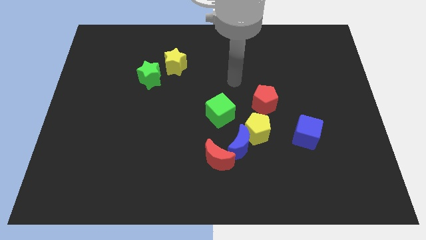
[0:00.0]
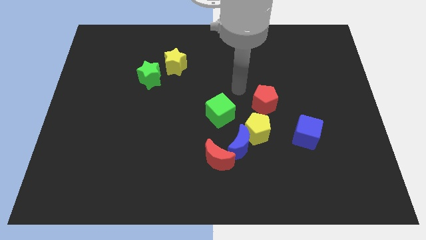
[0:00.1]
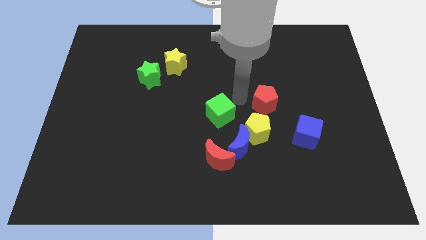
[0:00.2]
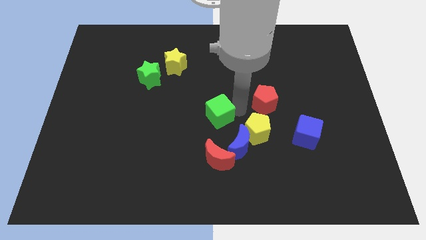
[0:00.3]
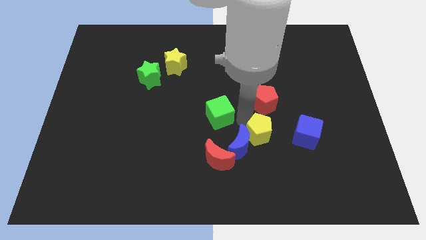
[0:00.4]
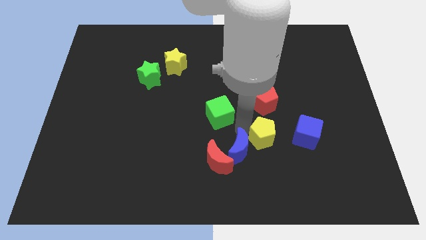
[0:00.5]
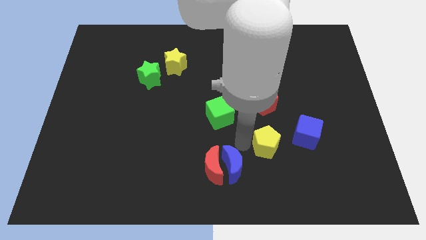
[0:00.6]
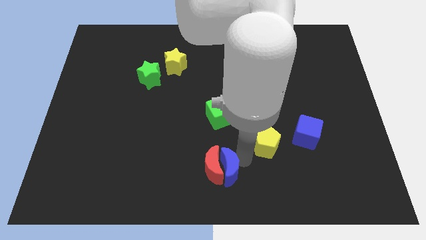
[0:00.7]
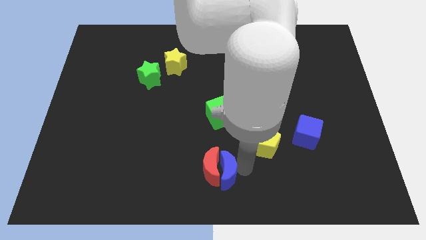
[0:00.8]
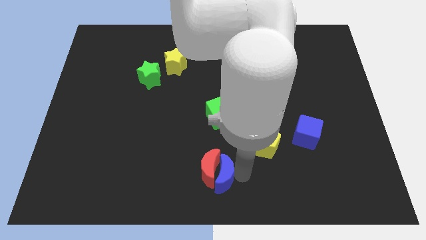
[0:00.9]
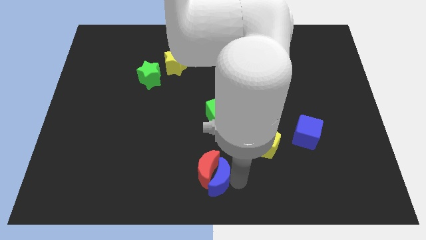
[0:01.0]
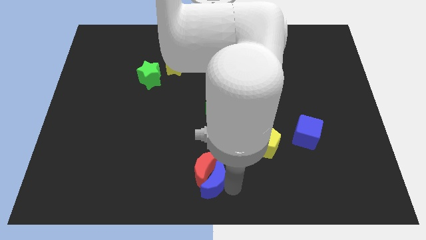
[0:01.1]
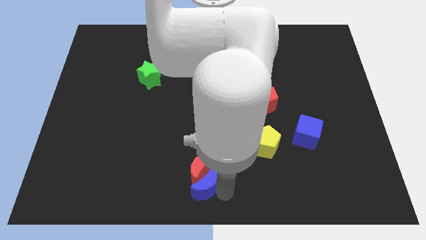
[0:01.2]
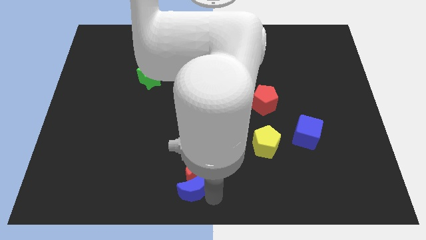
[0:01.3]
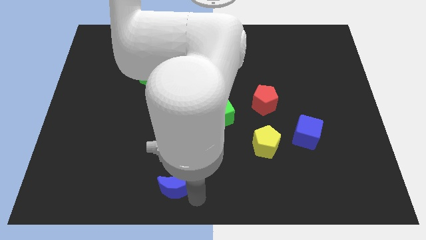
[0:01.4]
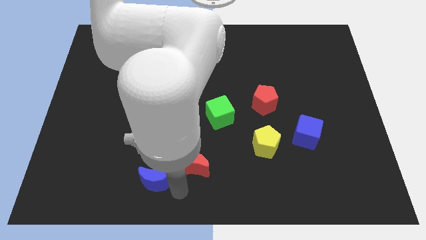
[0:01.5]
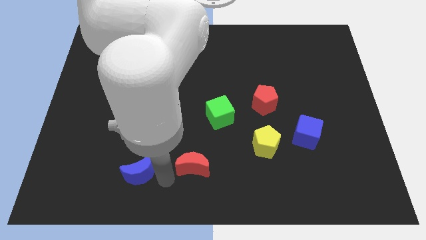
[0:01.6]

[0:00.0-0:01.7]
pull the red moon apart from the blue moon

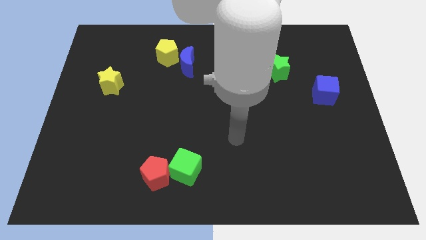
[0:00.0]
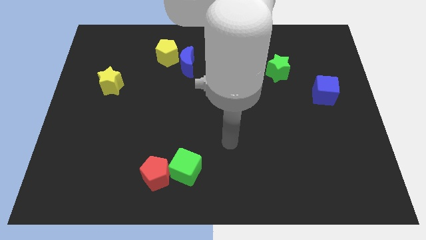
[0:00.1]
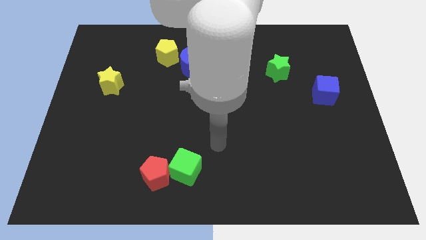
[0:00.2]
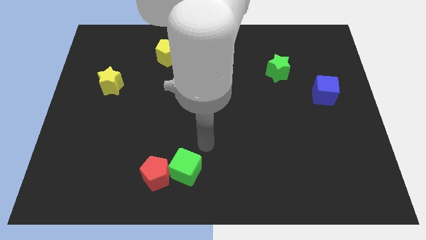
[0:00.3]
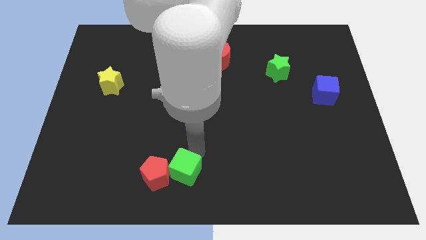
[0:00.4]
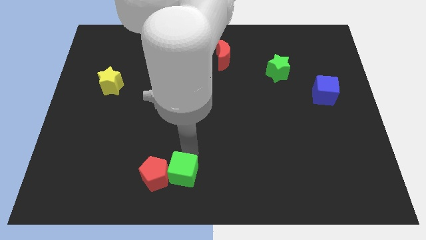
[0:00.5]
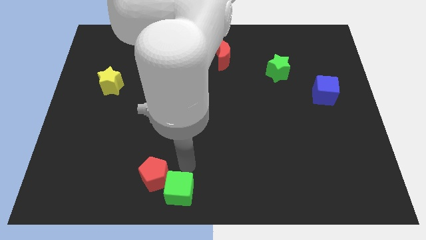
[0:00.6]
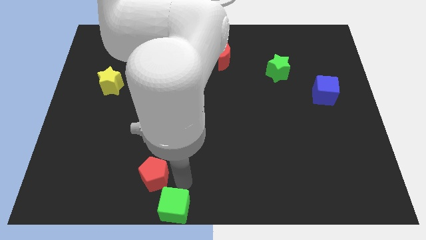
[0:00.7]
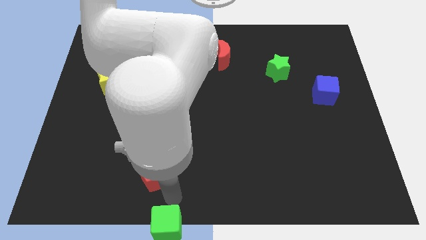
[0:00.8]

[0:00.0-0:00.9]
move the red pentagon away from the green cube

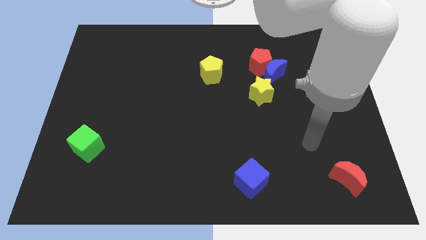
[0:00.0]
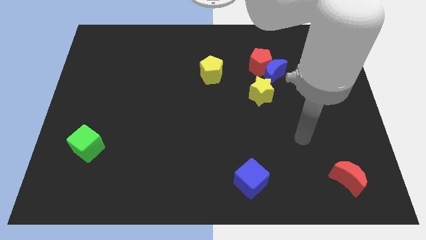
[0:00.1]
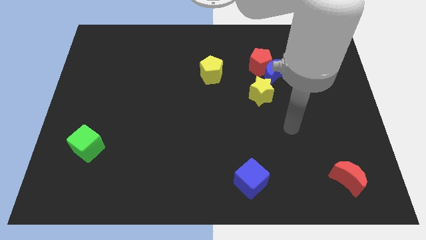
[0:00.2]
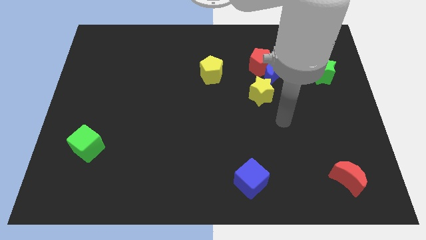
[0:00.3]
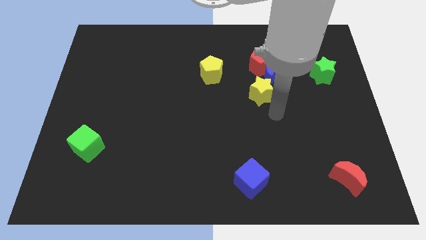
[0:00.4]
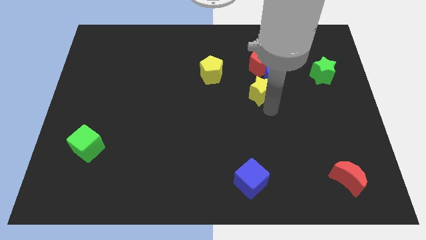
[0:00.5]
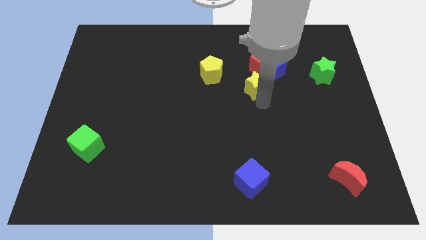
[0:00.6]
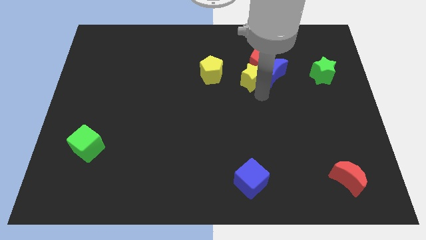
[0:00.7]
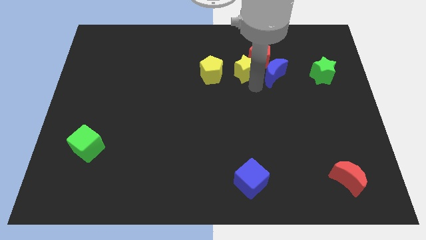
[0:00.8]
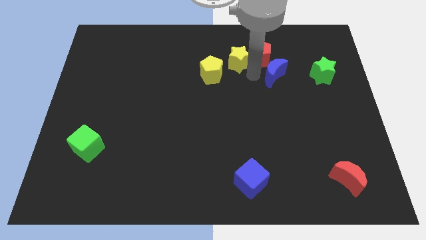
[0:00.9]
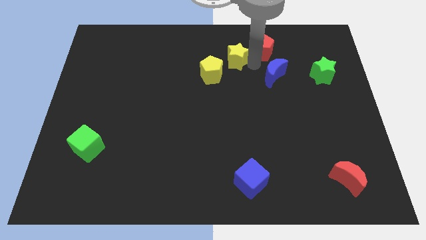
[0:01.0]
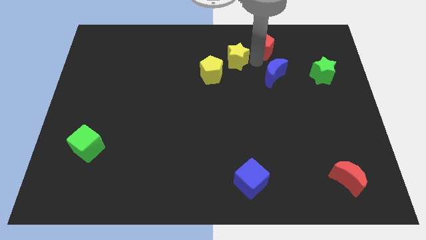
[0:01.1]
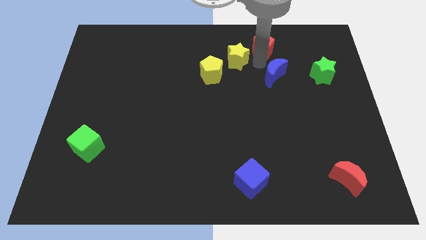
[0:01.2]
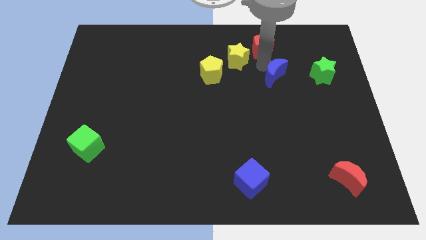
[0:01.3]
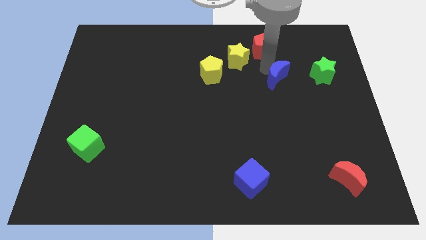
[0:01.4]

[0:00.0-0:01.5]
separate the blue moon from the red pentagon and yellow star

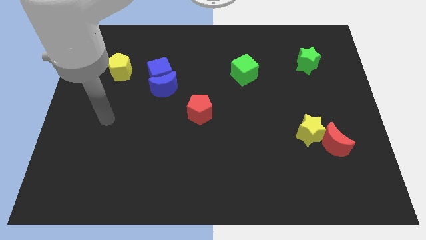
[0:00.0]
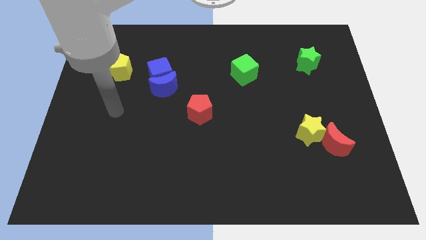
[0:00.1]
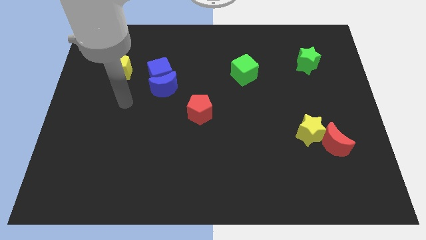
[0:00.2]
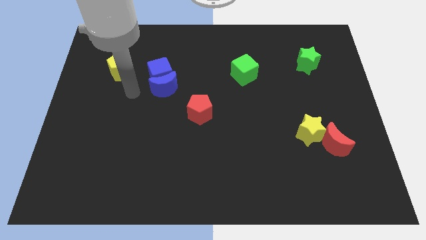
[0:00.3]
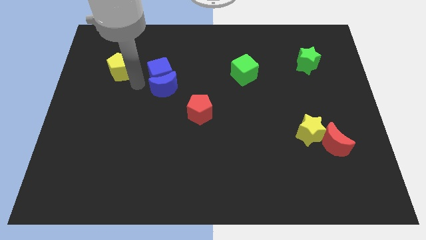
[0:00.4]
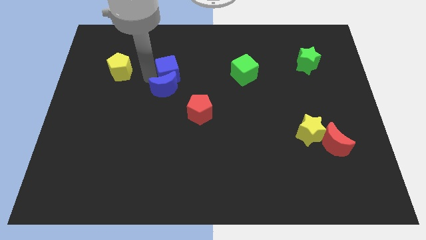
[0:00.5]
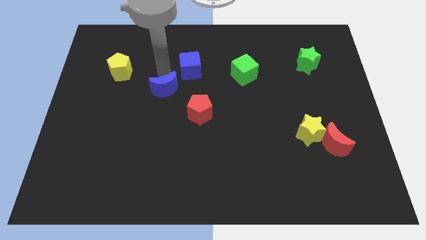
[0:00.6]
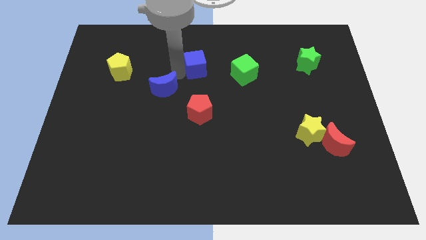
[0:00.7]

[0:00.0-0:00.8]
move the blue moon away from the blue cube

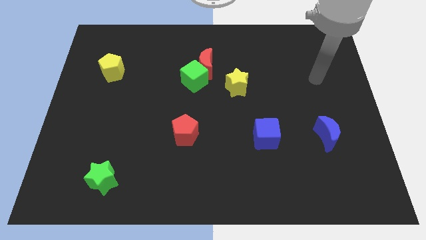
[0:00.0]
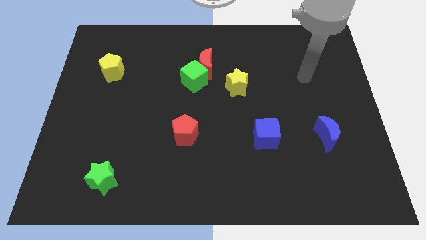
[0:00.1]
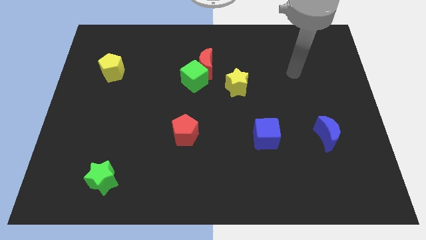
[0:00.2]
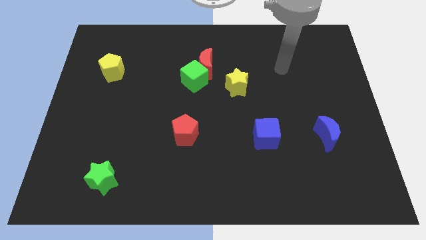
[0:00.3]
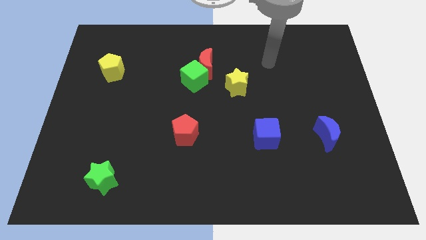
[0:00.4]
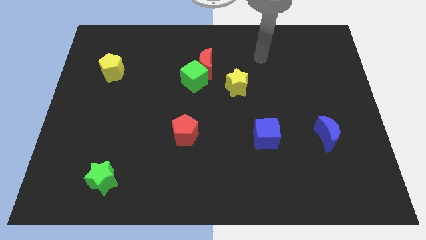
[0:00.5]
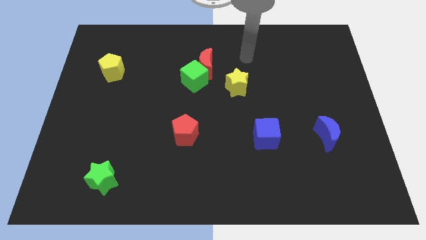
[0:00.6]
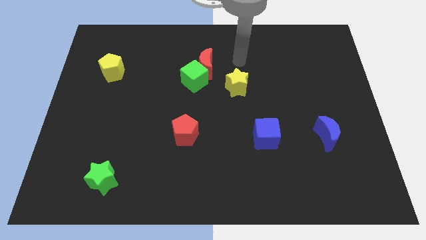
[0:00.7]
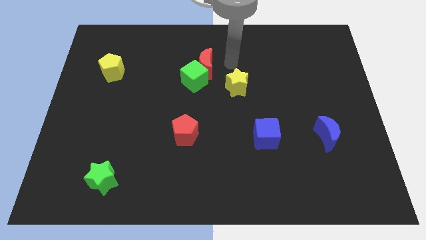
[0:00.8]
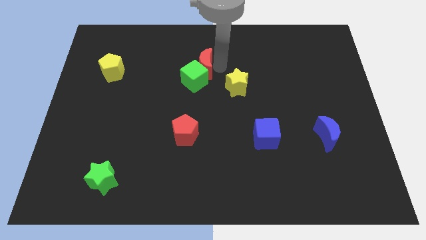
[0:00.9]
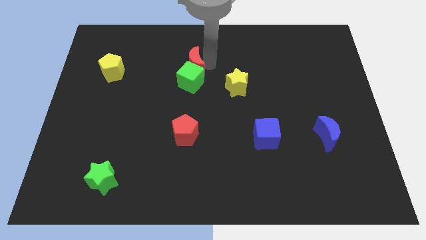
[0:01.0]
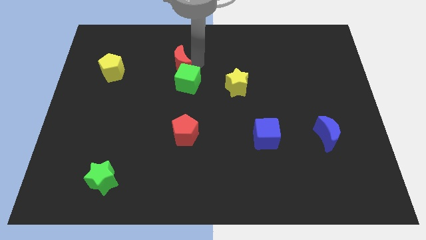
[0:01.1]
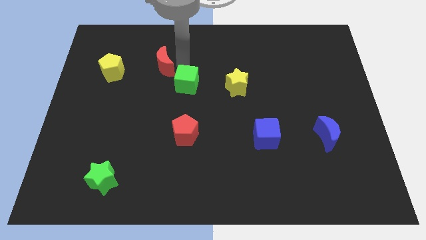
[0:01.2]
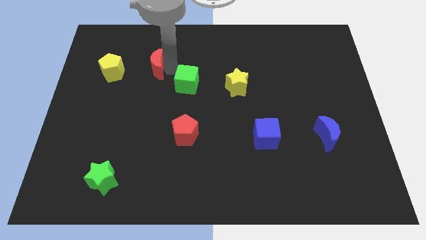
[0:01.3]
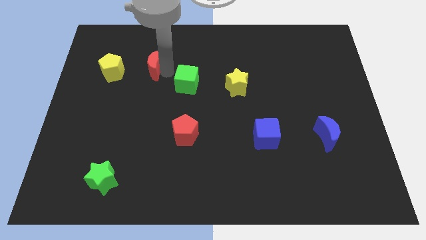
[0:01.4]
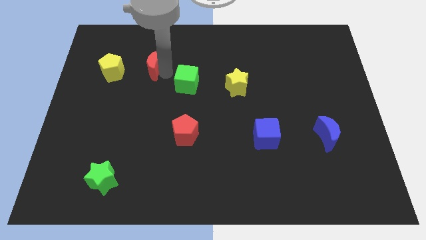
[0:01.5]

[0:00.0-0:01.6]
move the green cube away from the red moon

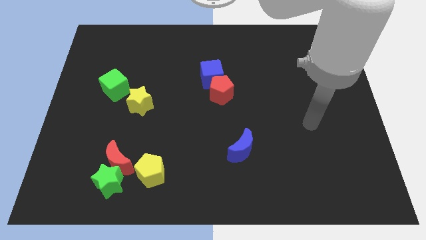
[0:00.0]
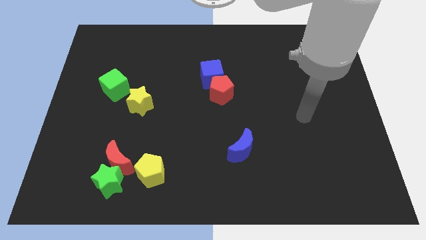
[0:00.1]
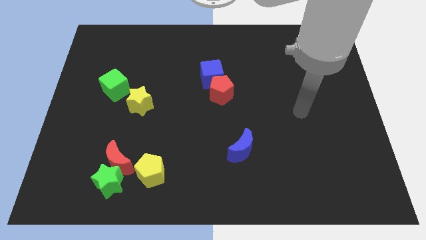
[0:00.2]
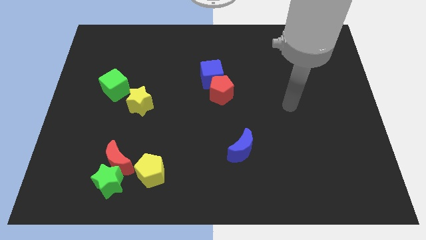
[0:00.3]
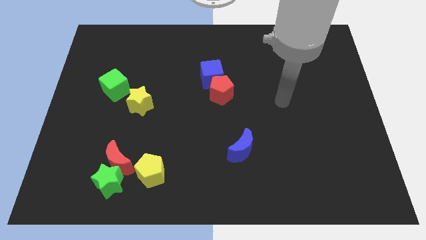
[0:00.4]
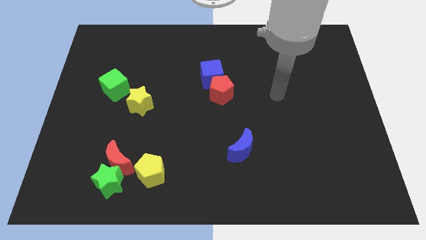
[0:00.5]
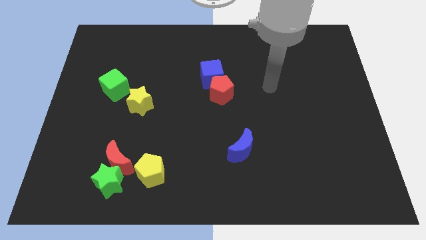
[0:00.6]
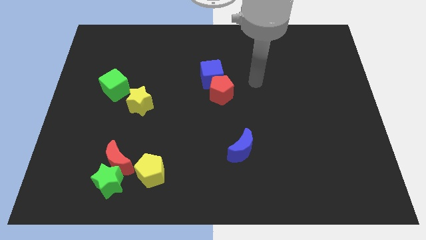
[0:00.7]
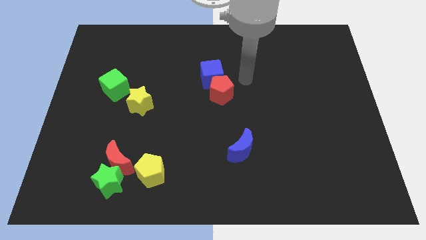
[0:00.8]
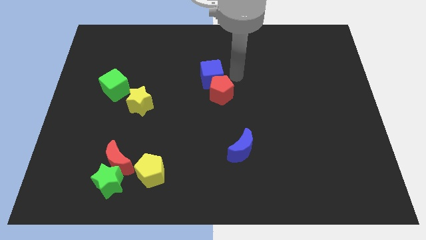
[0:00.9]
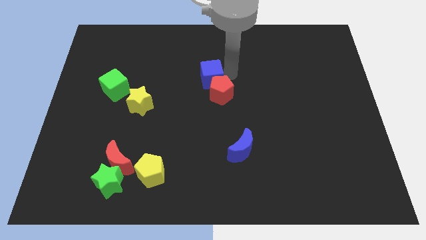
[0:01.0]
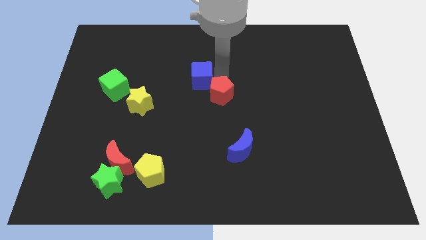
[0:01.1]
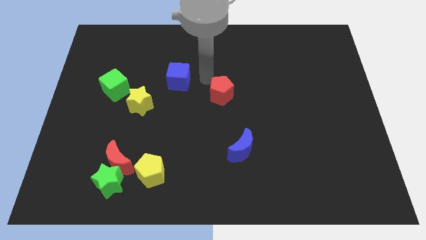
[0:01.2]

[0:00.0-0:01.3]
separate the red pentagon from the blue cube

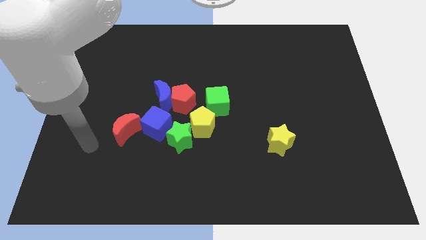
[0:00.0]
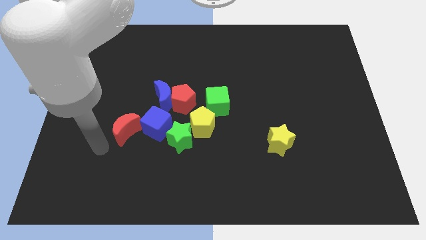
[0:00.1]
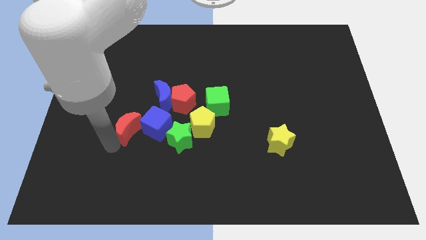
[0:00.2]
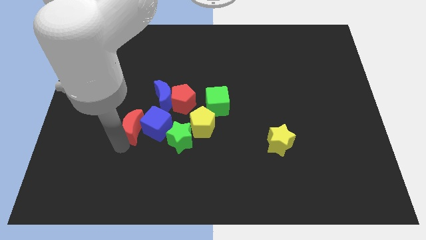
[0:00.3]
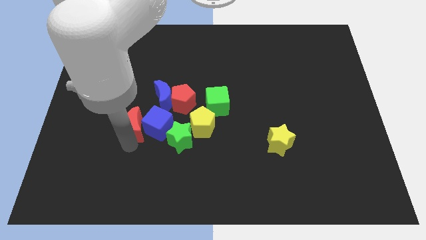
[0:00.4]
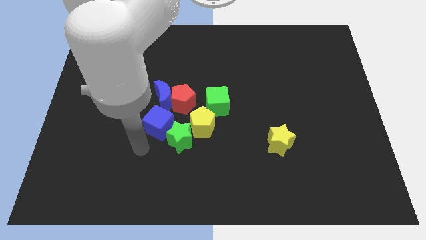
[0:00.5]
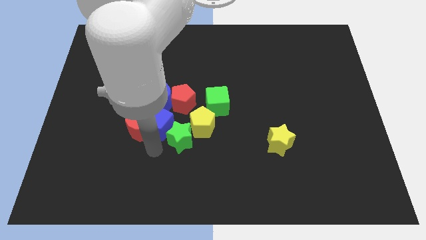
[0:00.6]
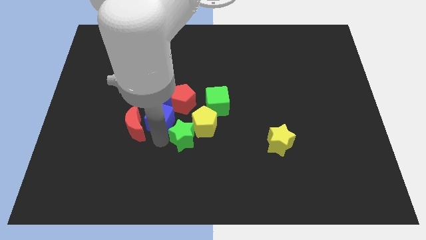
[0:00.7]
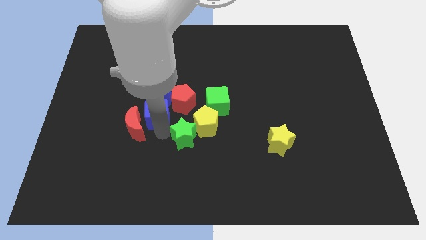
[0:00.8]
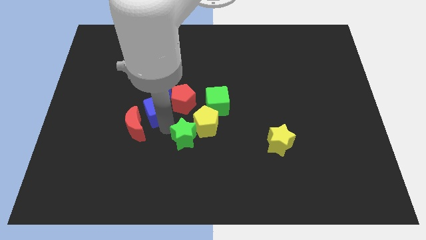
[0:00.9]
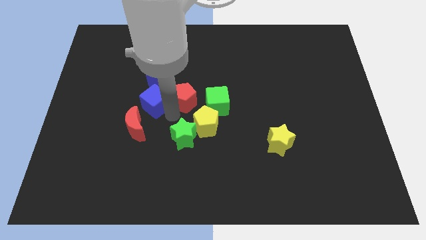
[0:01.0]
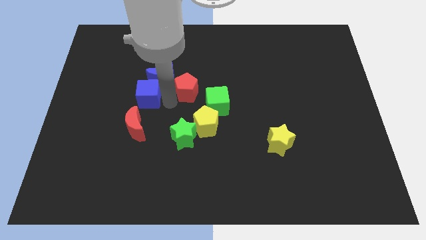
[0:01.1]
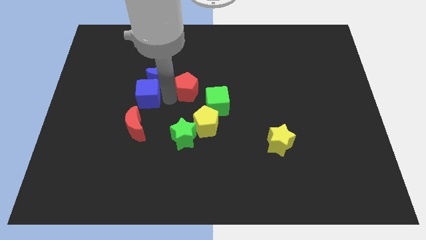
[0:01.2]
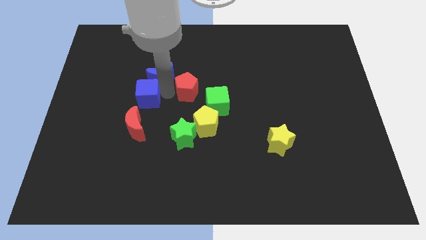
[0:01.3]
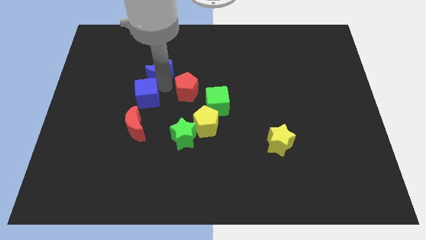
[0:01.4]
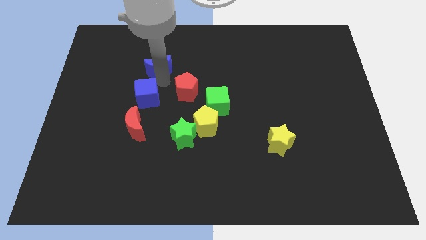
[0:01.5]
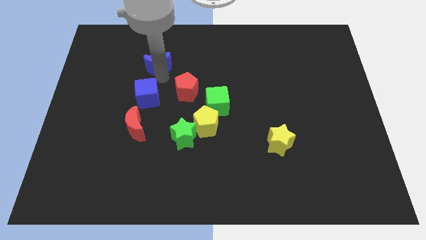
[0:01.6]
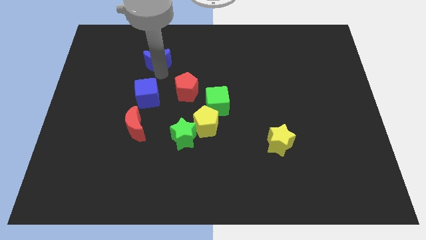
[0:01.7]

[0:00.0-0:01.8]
separate the blue moon from the red pentagon and blue cube
